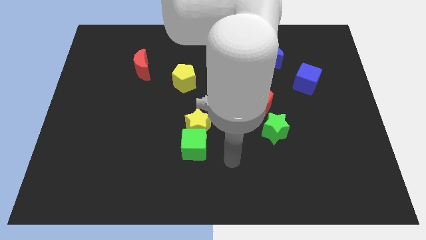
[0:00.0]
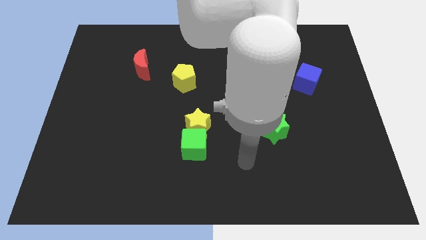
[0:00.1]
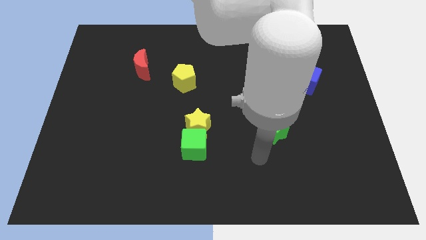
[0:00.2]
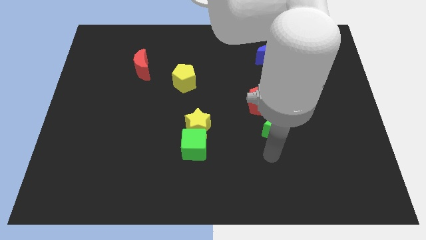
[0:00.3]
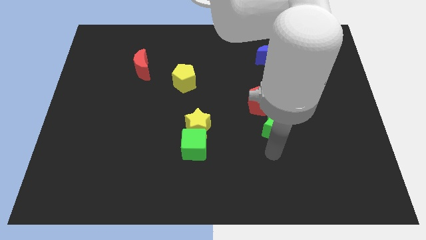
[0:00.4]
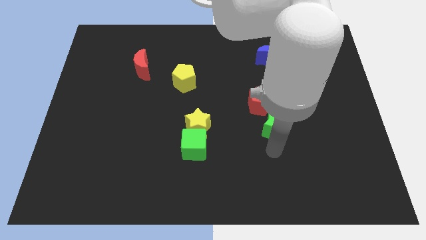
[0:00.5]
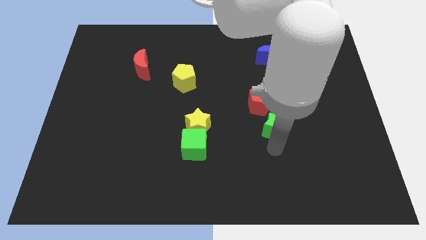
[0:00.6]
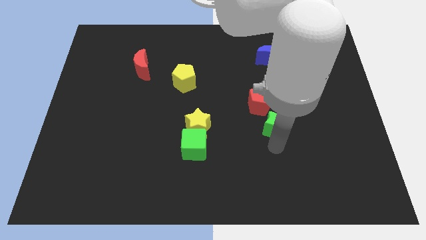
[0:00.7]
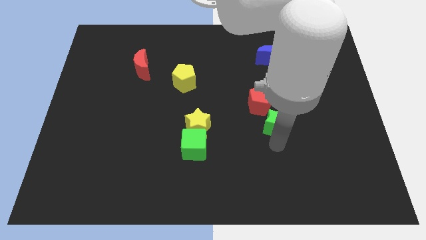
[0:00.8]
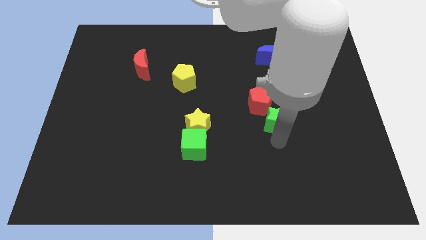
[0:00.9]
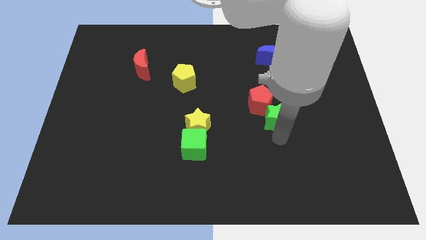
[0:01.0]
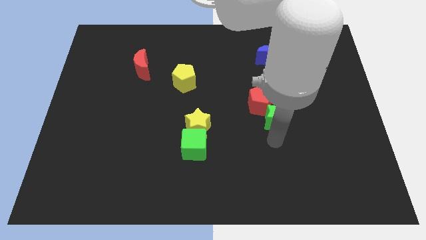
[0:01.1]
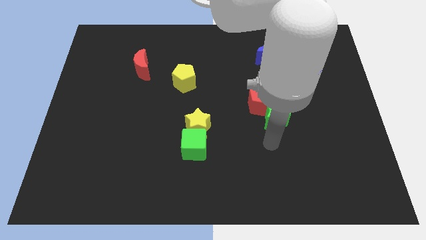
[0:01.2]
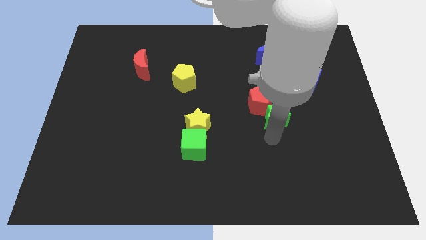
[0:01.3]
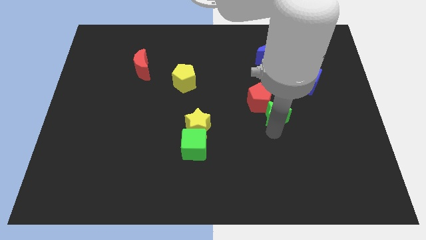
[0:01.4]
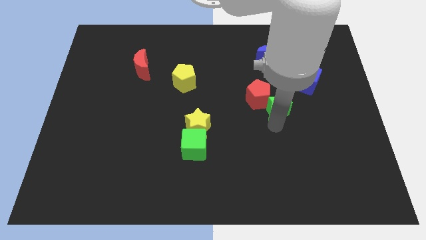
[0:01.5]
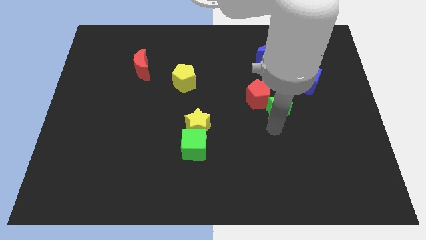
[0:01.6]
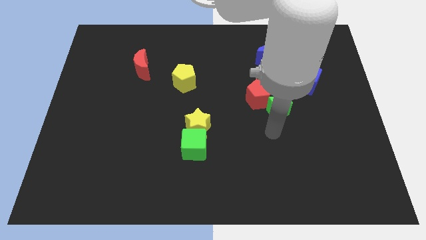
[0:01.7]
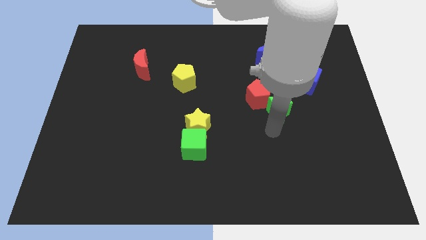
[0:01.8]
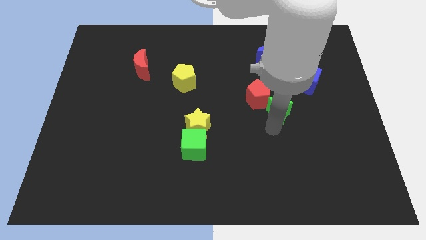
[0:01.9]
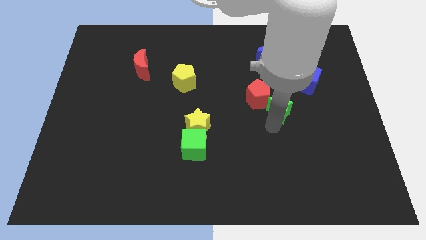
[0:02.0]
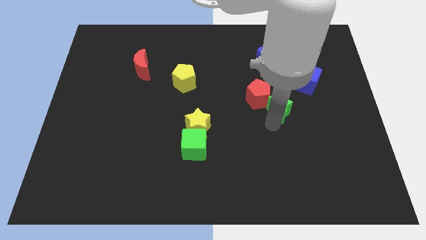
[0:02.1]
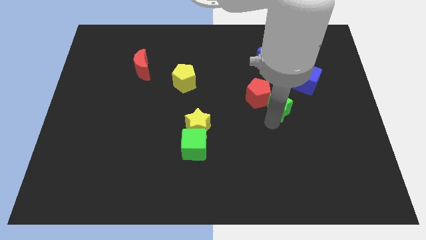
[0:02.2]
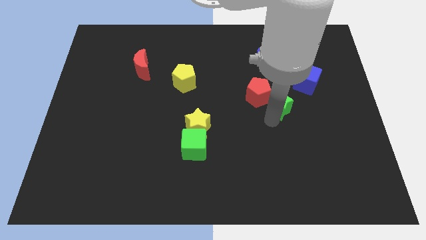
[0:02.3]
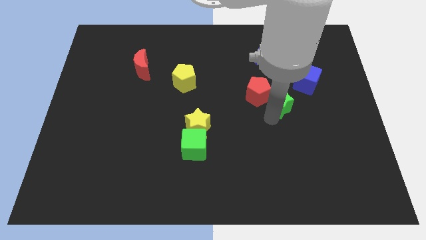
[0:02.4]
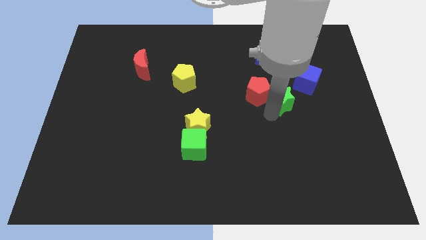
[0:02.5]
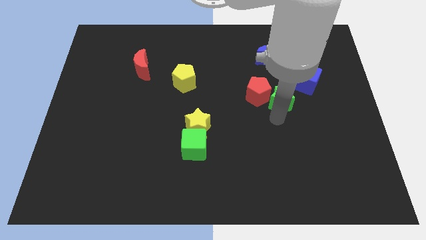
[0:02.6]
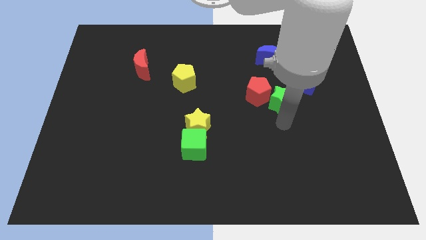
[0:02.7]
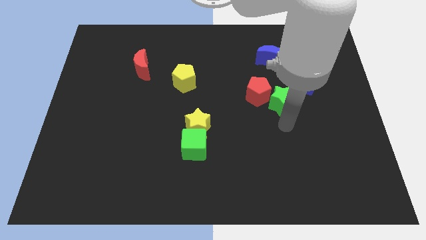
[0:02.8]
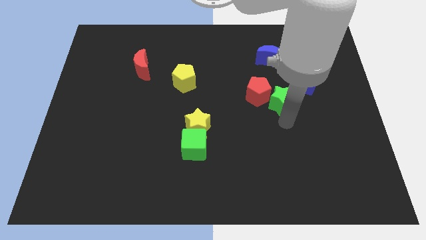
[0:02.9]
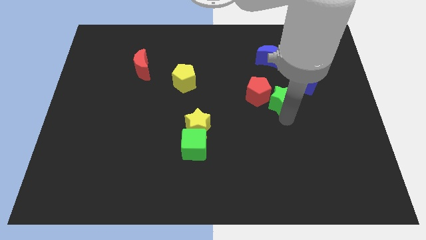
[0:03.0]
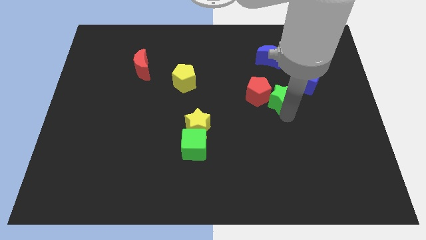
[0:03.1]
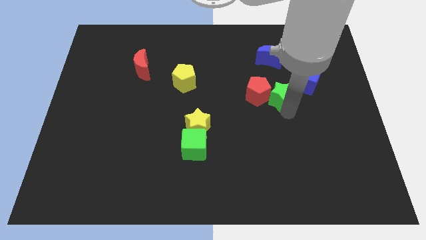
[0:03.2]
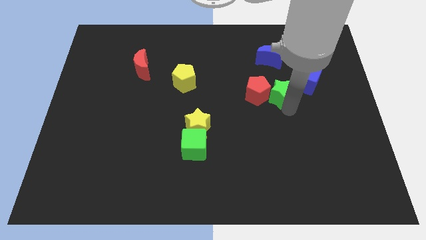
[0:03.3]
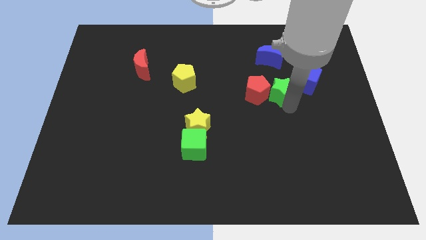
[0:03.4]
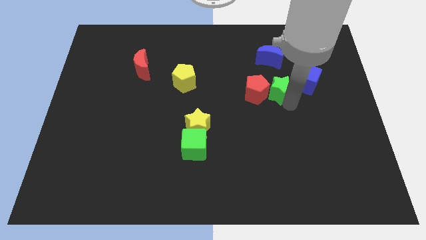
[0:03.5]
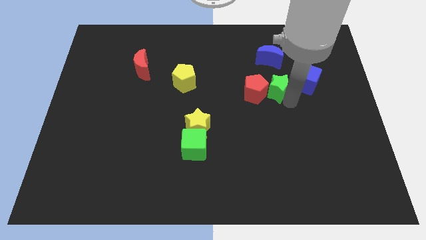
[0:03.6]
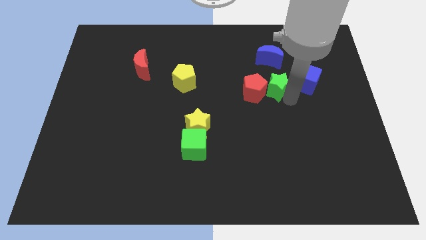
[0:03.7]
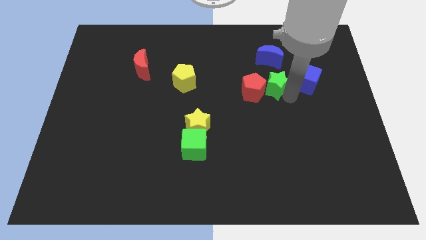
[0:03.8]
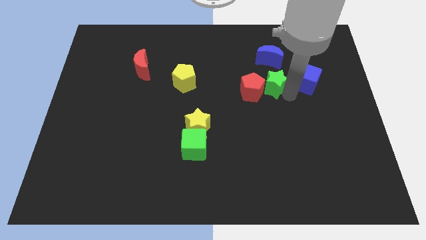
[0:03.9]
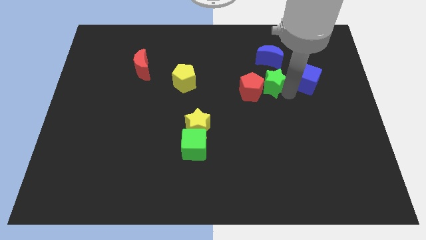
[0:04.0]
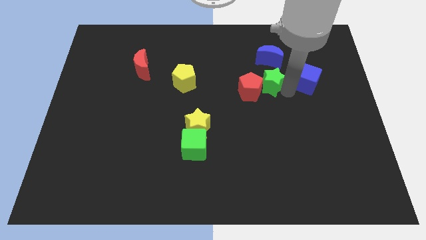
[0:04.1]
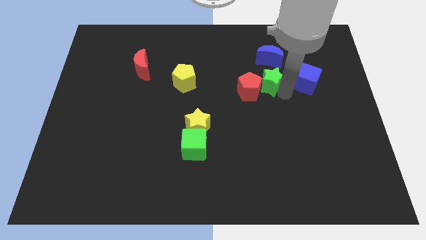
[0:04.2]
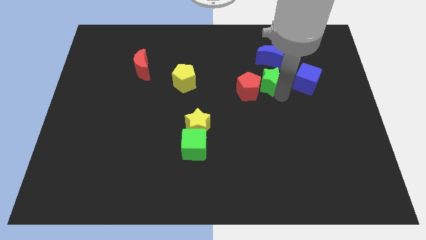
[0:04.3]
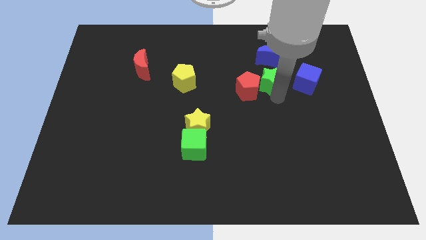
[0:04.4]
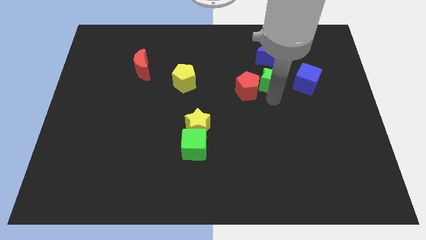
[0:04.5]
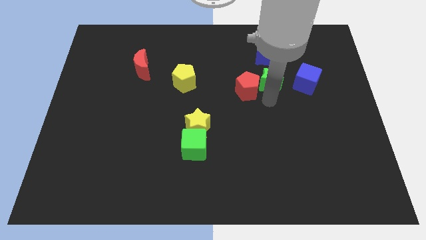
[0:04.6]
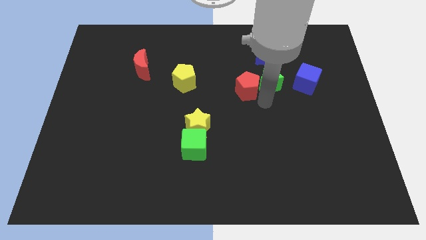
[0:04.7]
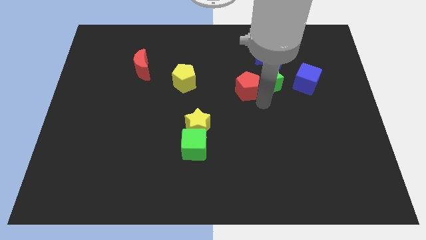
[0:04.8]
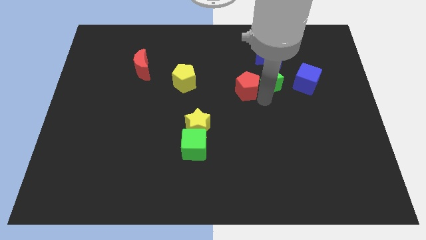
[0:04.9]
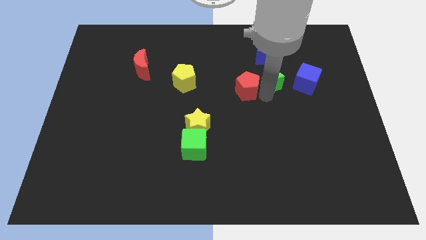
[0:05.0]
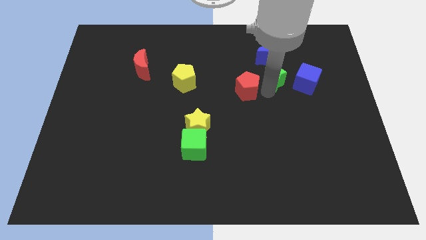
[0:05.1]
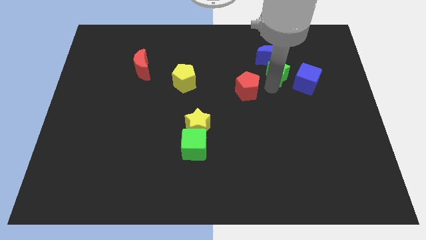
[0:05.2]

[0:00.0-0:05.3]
move the green star next to the blue moon

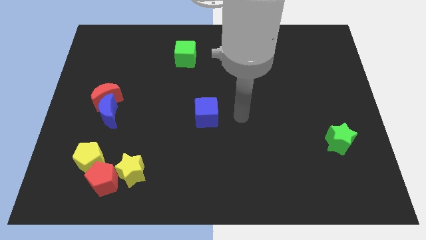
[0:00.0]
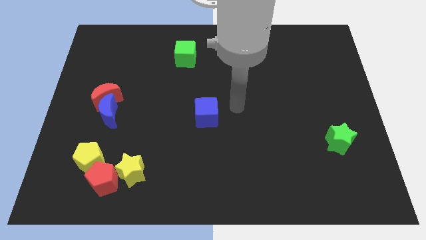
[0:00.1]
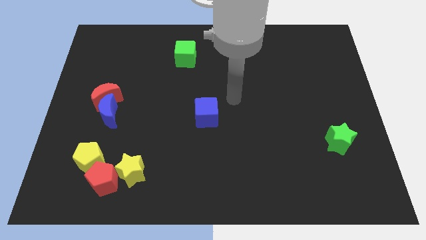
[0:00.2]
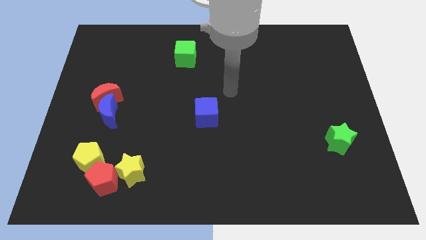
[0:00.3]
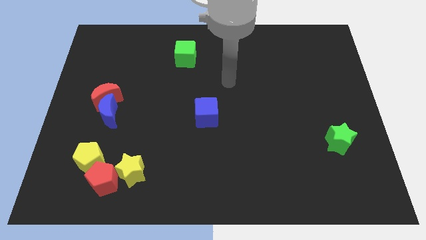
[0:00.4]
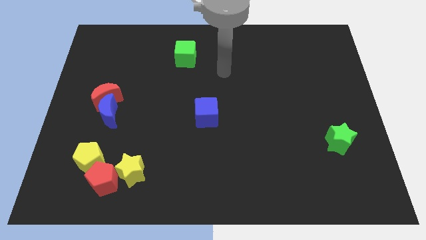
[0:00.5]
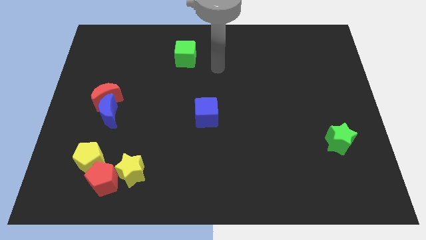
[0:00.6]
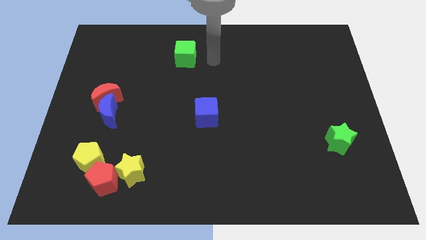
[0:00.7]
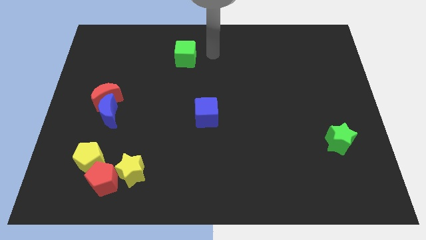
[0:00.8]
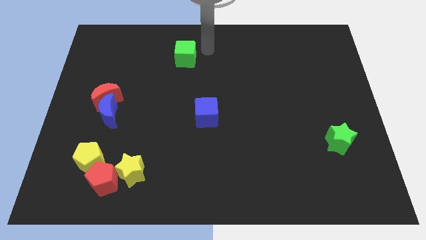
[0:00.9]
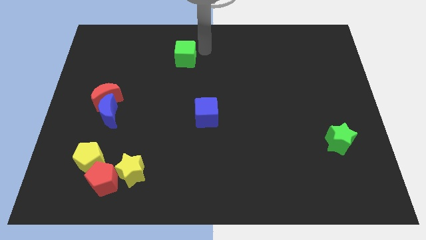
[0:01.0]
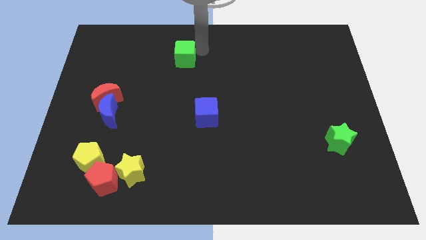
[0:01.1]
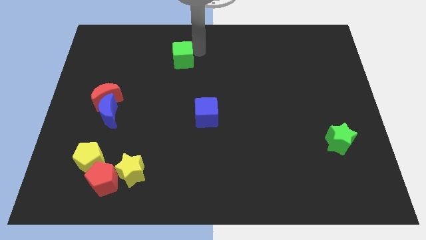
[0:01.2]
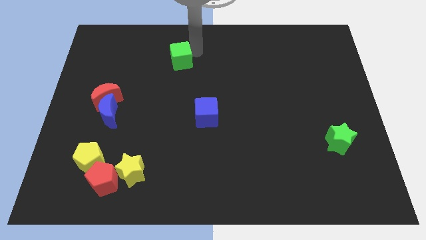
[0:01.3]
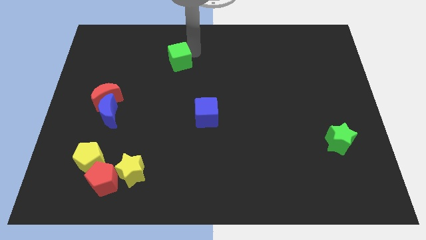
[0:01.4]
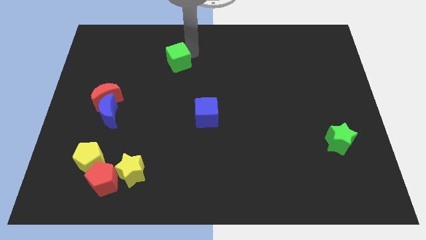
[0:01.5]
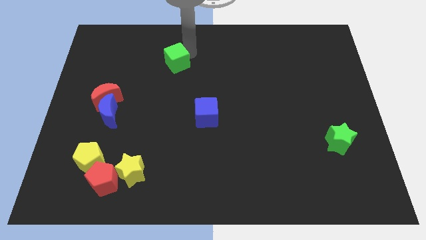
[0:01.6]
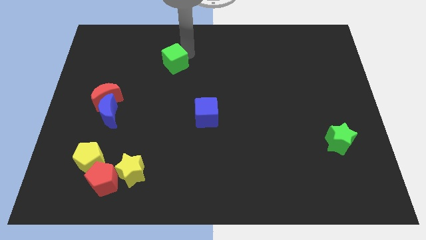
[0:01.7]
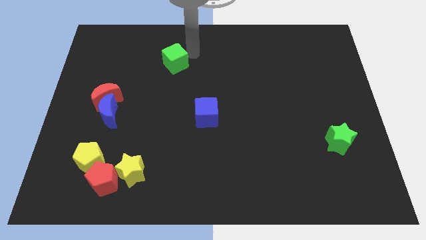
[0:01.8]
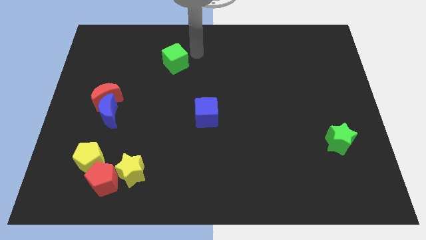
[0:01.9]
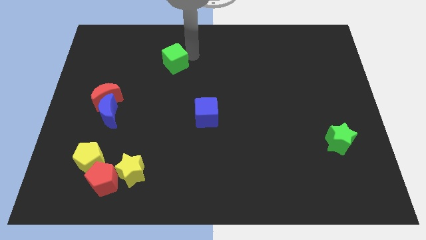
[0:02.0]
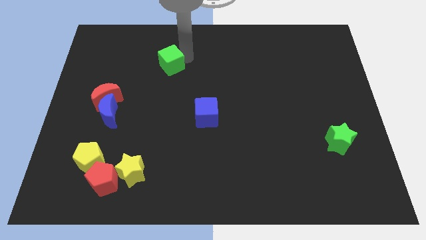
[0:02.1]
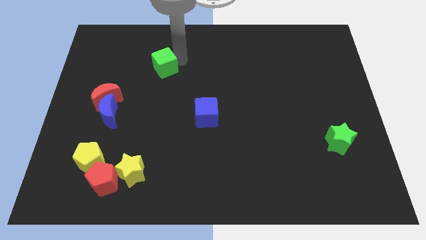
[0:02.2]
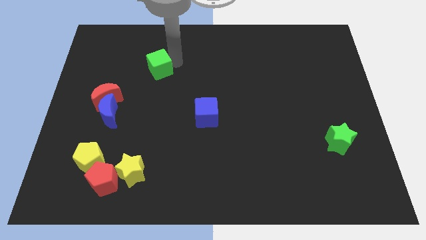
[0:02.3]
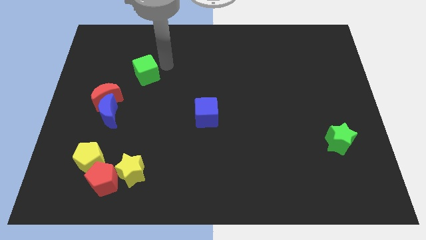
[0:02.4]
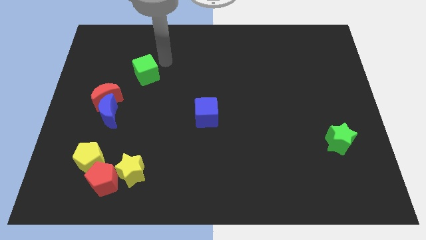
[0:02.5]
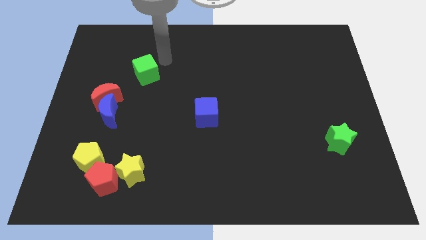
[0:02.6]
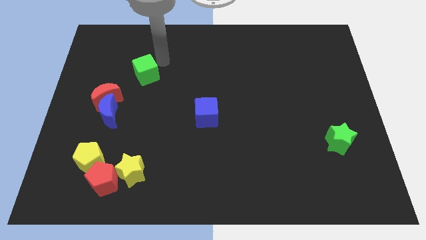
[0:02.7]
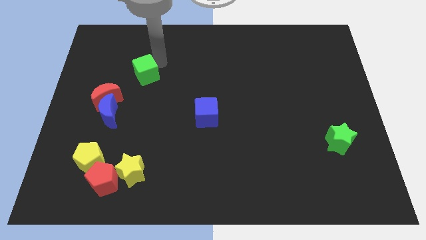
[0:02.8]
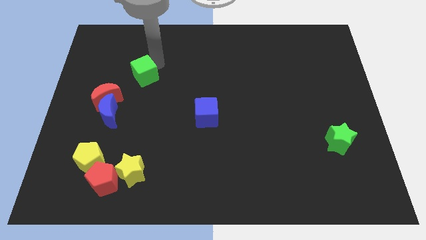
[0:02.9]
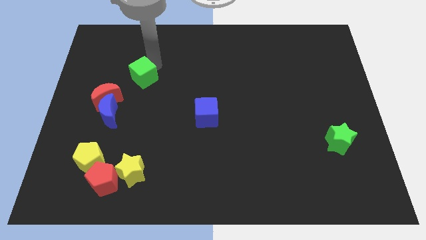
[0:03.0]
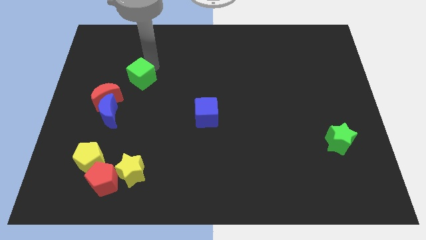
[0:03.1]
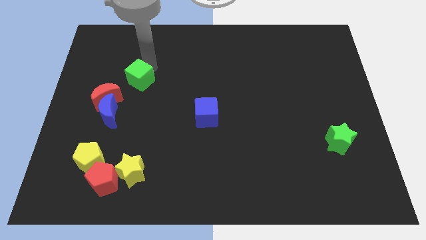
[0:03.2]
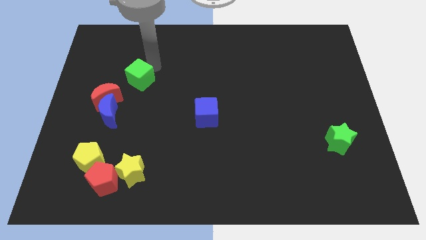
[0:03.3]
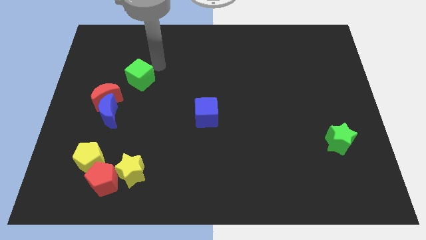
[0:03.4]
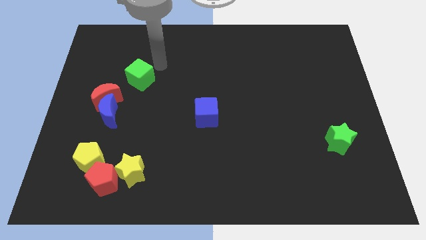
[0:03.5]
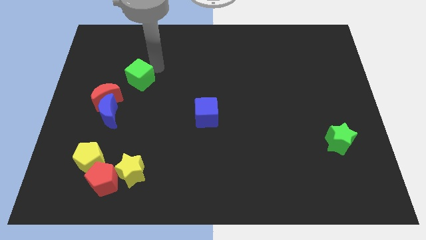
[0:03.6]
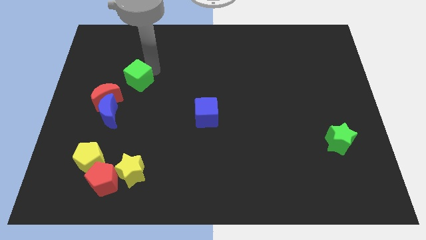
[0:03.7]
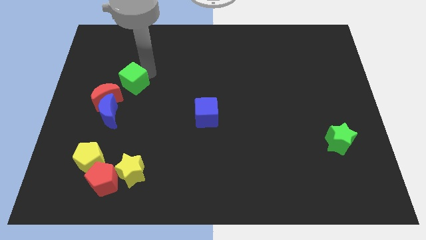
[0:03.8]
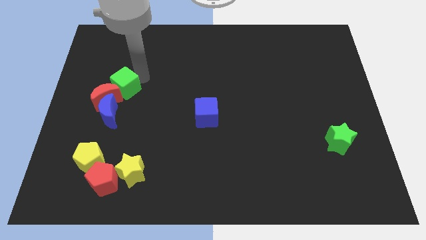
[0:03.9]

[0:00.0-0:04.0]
slide the green cube next to the red moon
